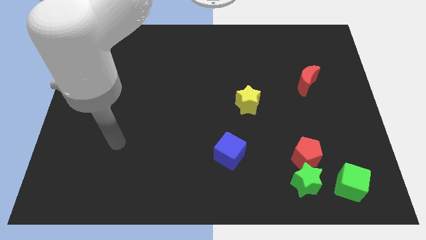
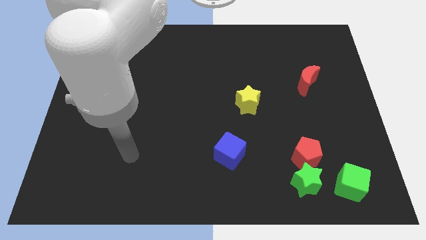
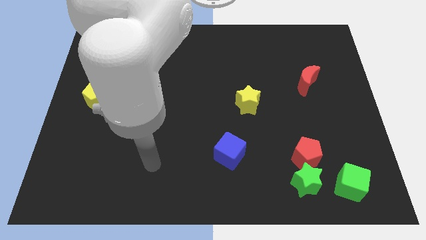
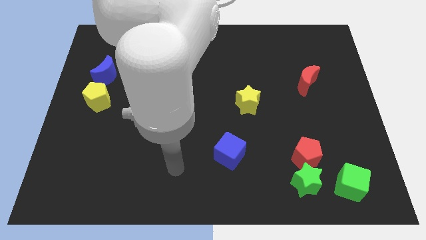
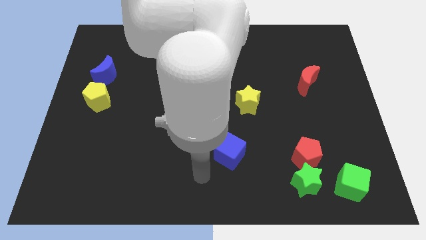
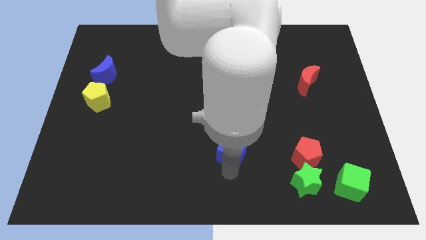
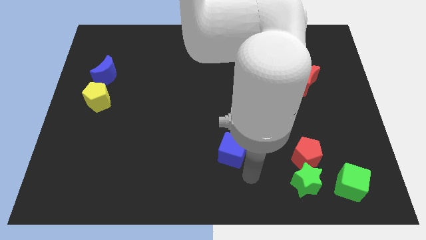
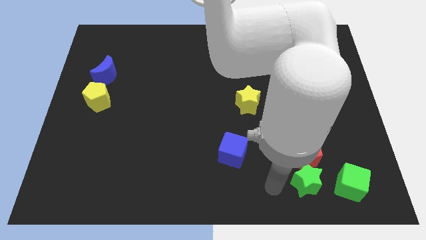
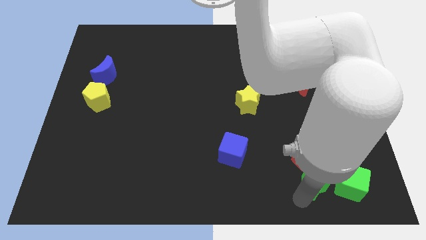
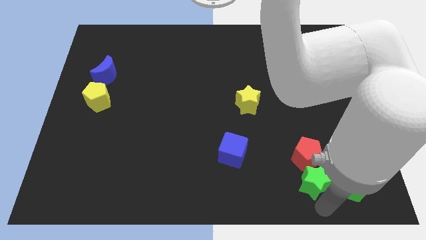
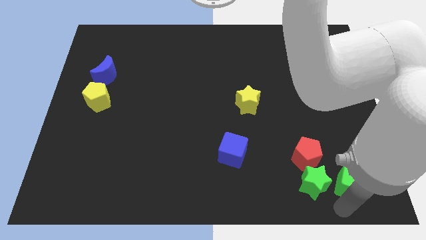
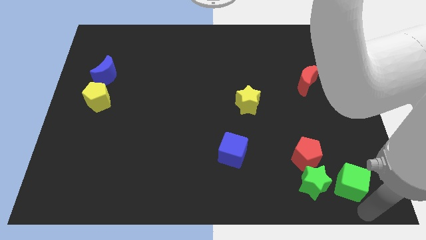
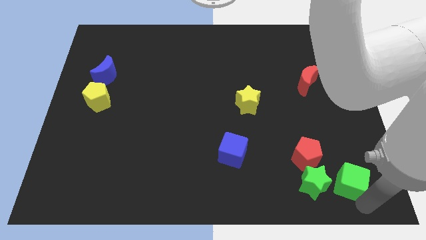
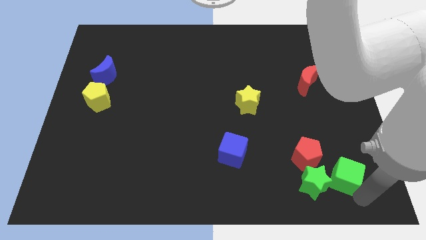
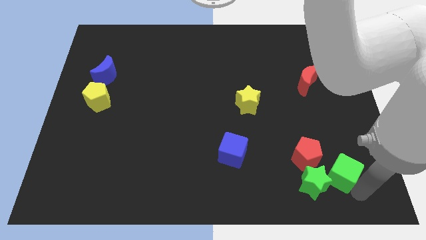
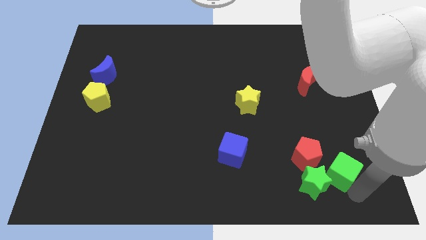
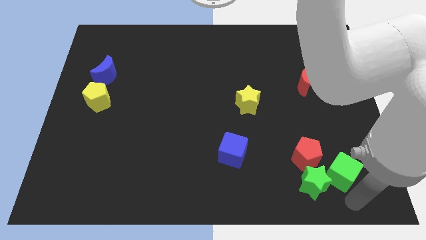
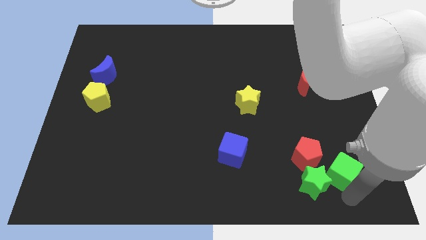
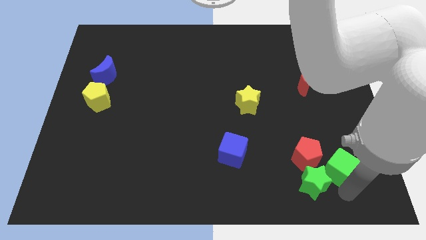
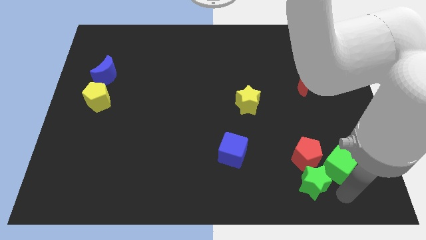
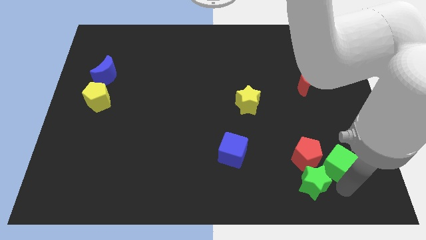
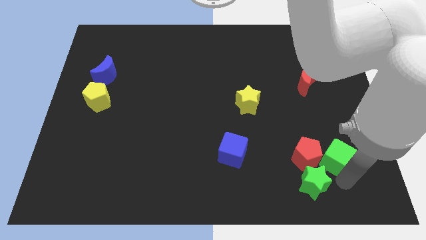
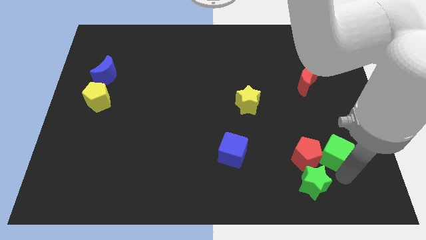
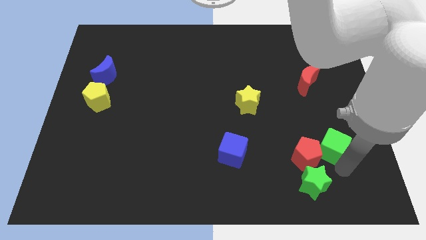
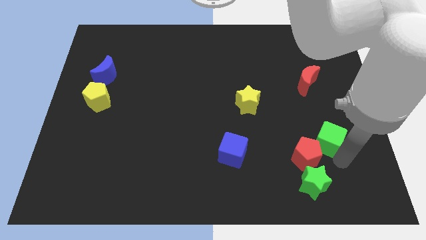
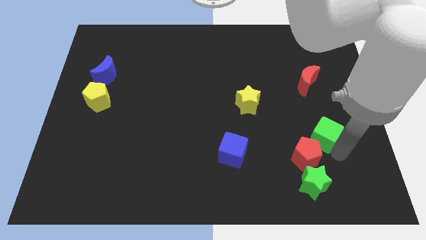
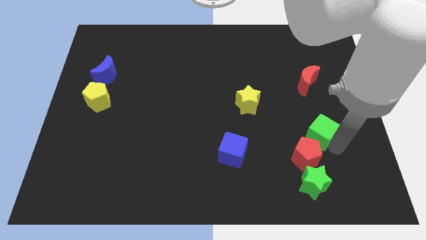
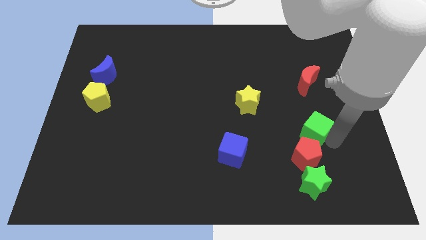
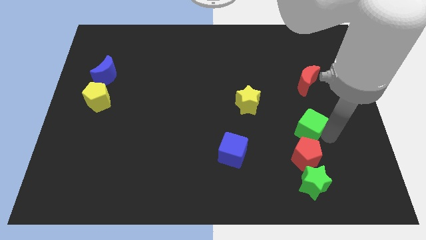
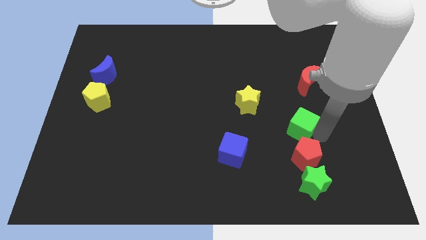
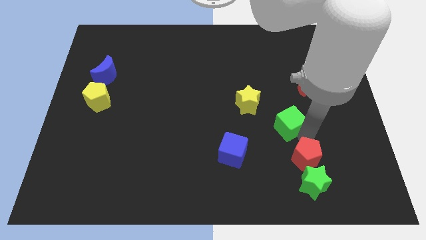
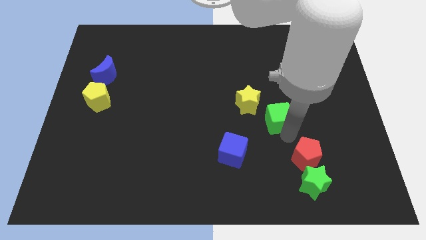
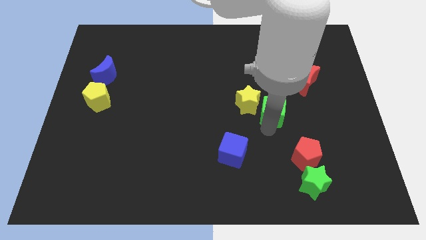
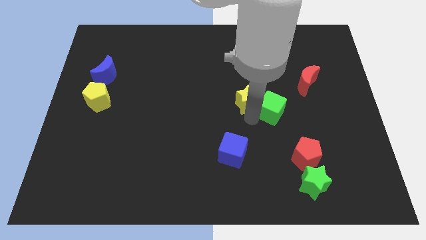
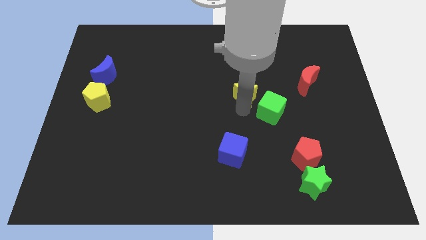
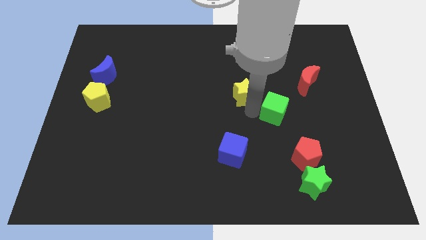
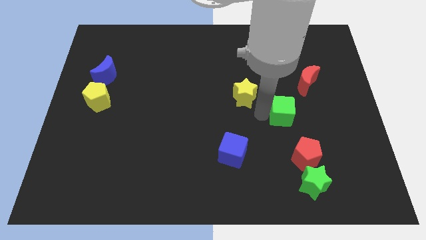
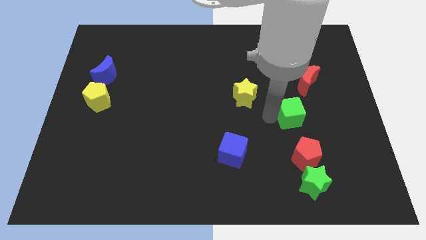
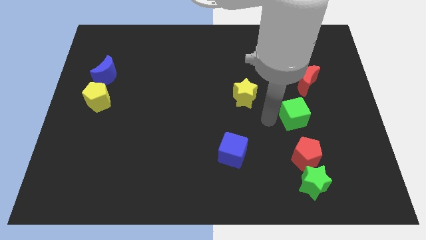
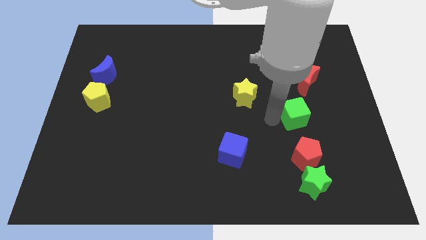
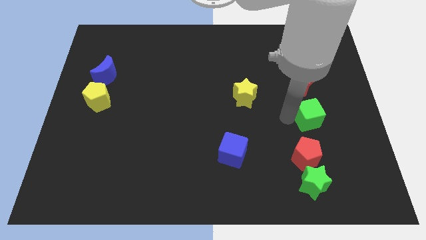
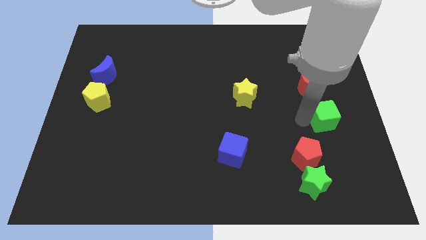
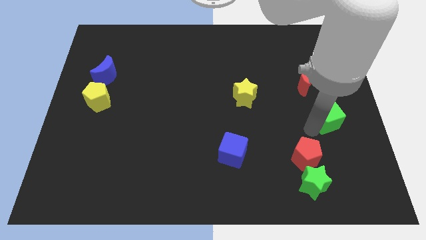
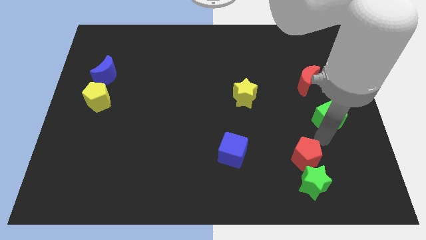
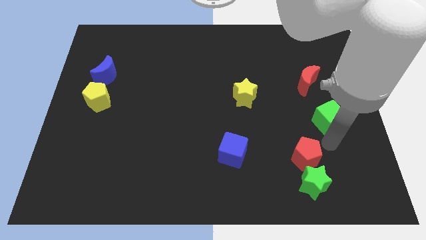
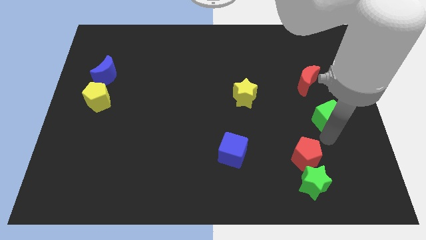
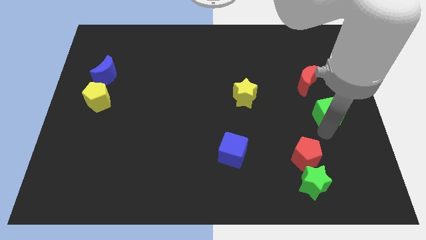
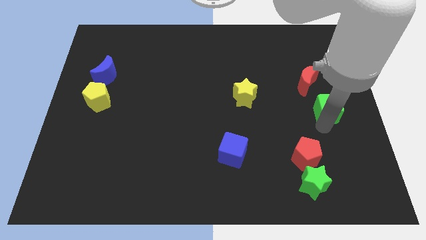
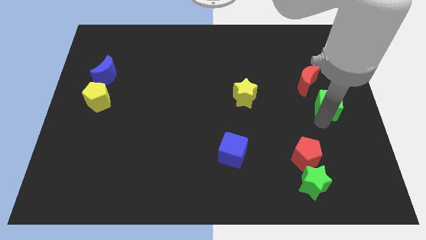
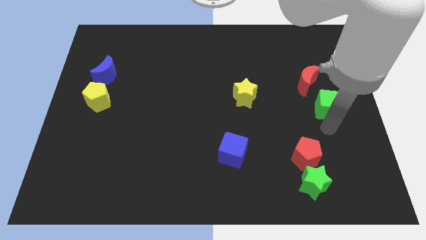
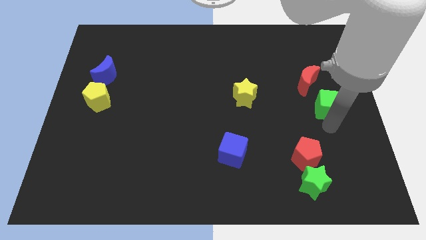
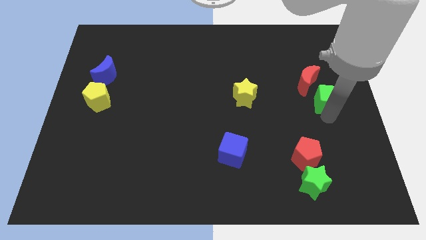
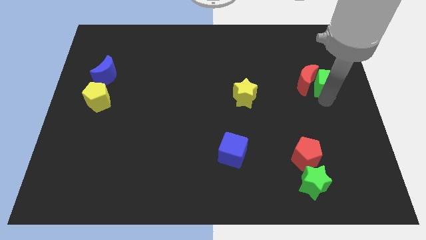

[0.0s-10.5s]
move the green cube to the top right of the red moon

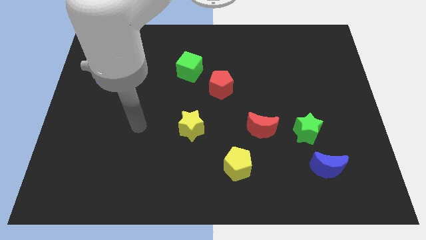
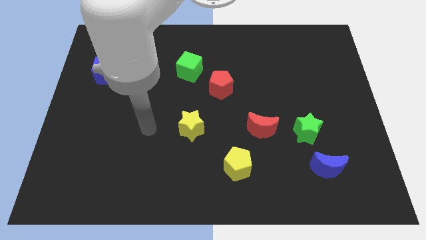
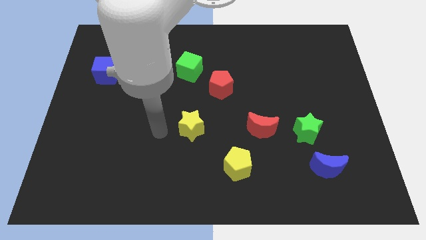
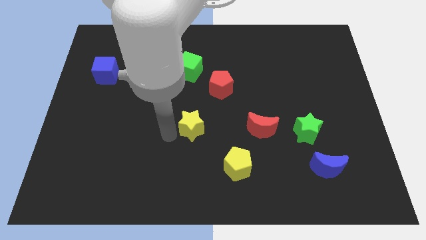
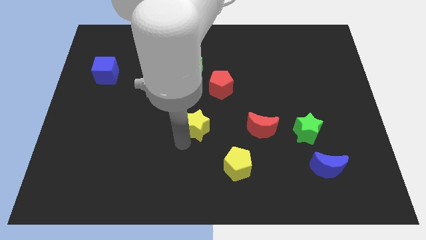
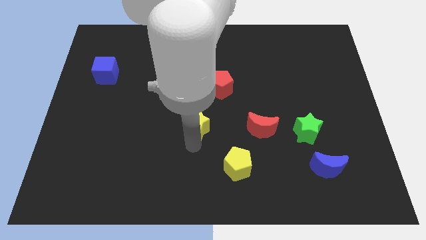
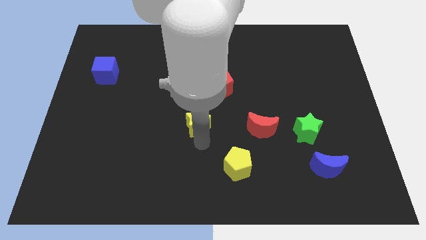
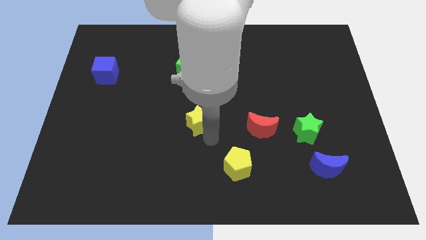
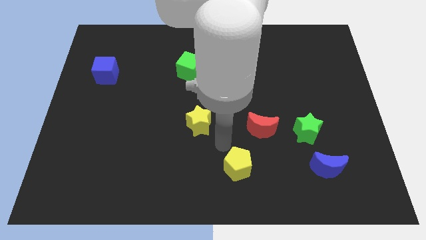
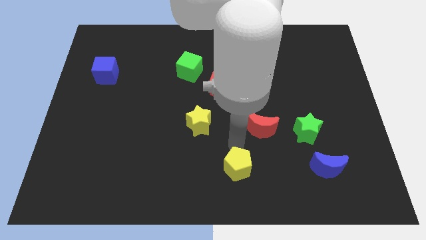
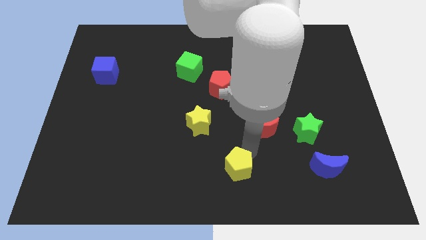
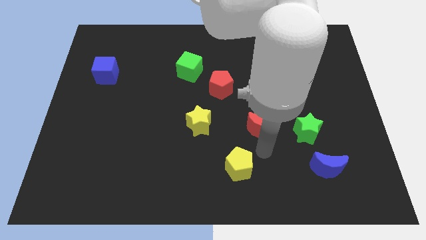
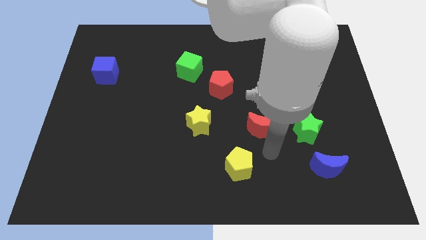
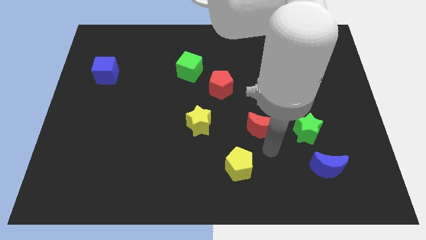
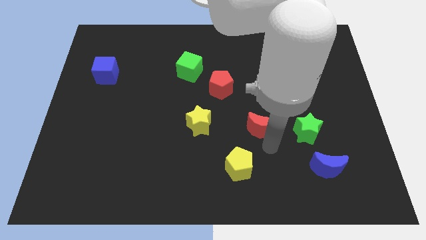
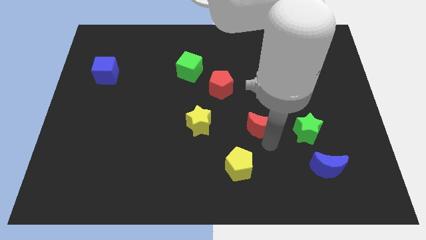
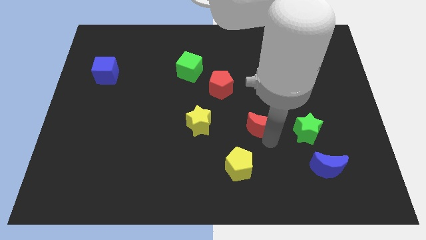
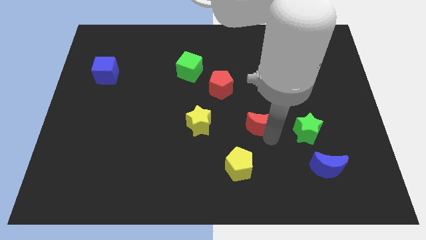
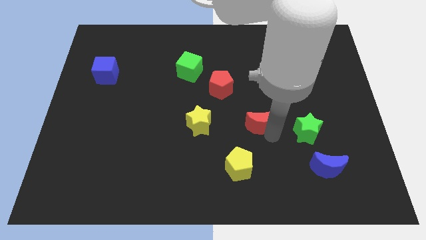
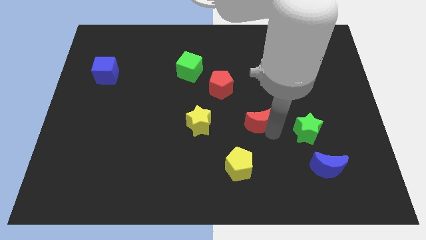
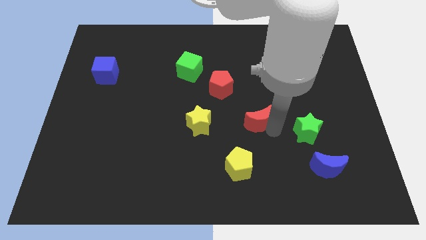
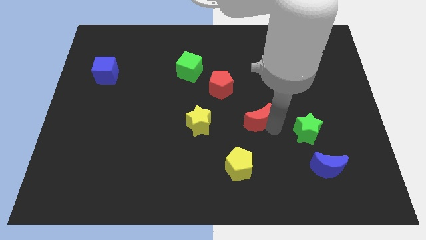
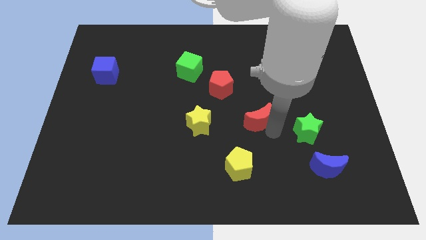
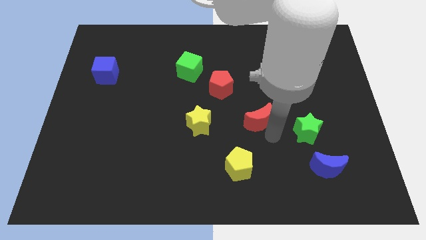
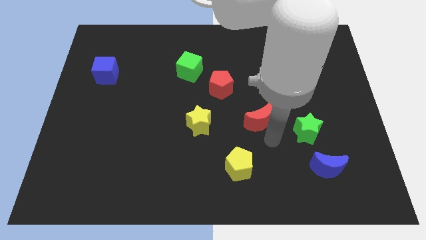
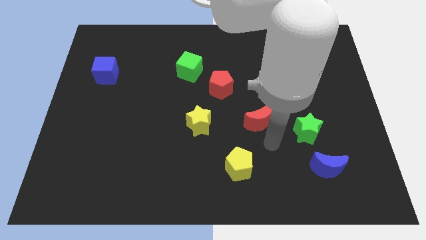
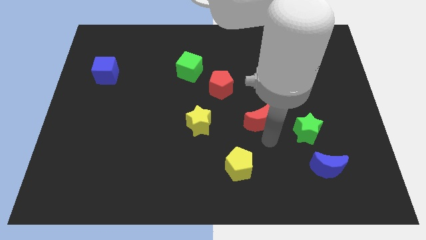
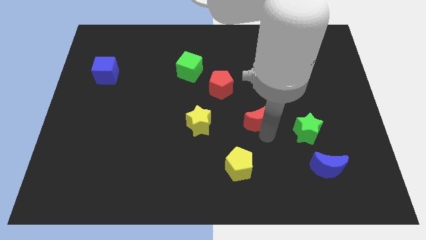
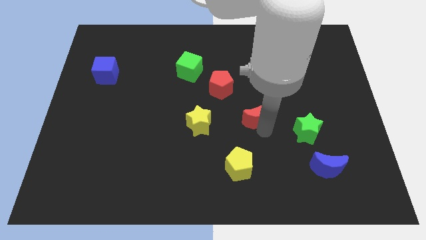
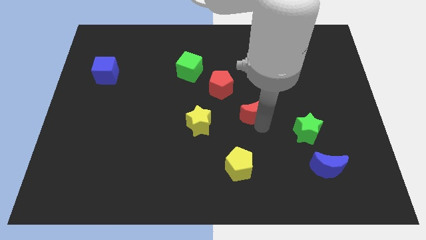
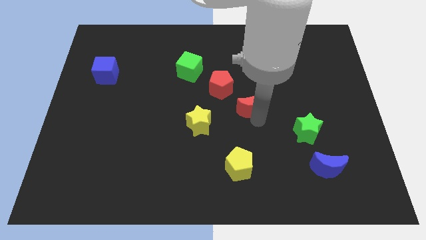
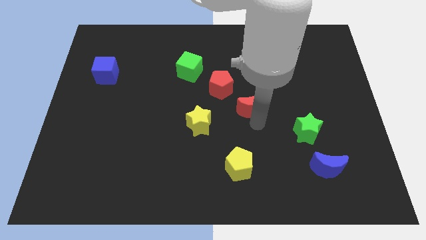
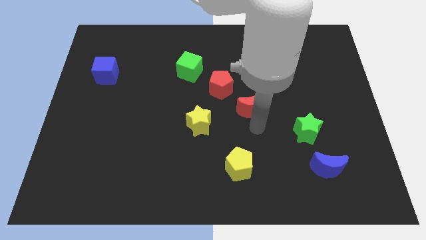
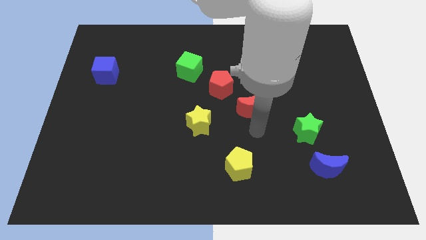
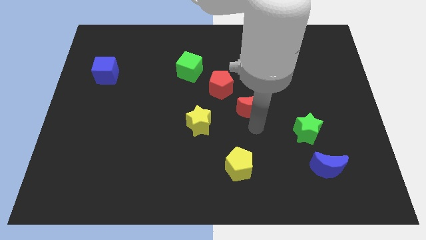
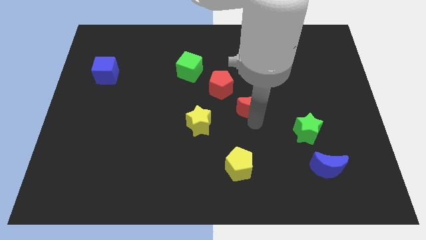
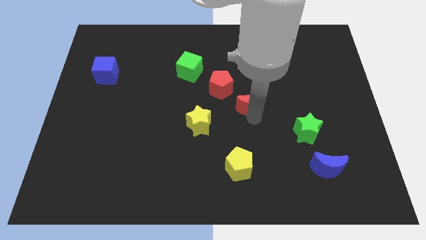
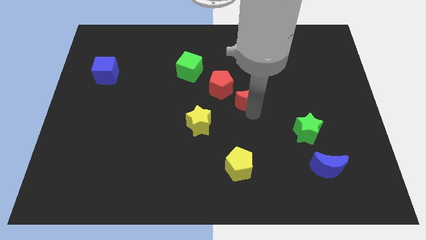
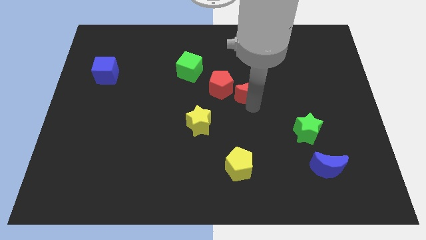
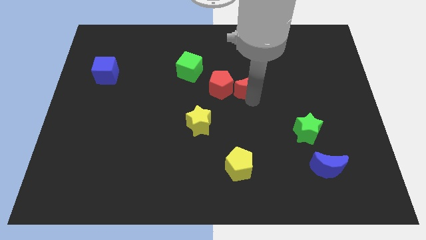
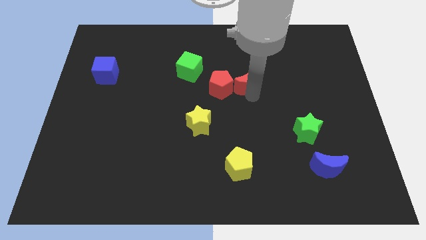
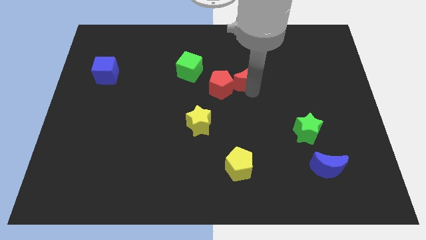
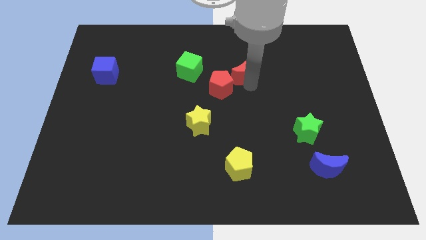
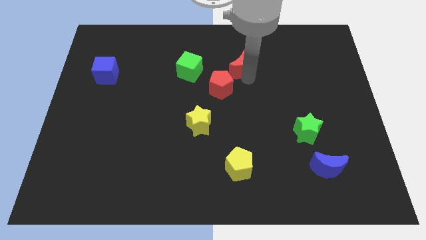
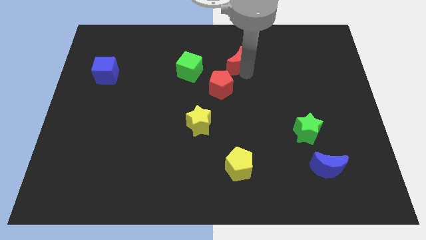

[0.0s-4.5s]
push the red moon to the top side of the red pentagon
